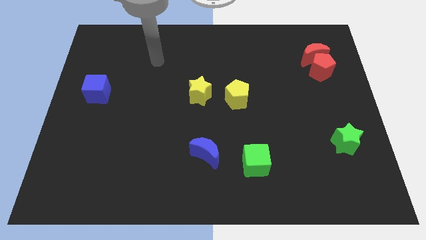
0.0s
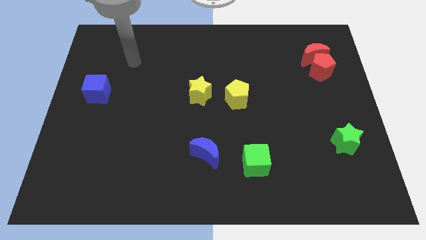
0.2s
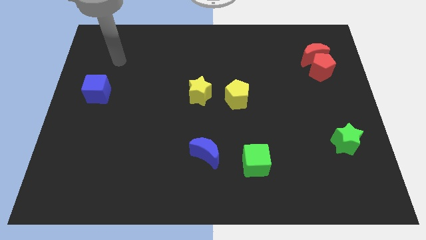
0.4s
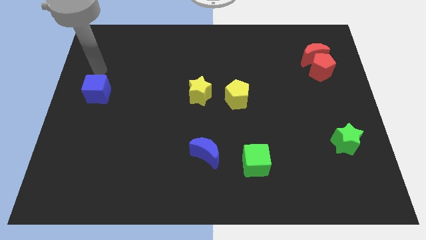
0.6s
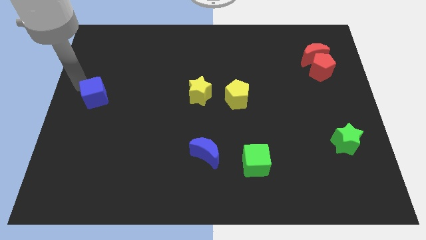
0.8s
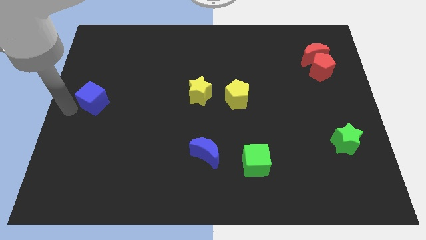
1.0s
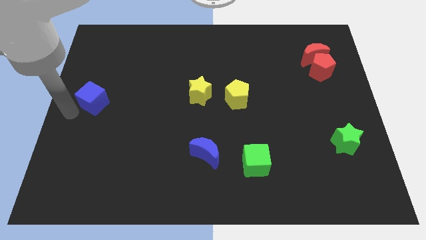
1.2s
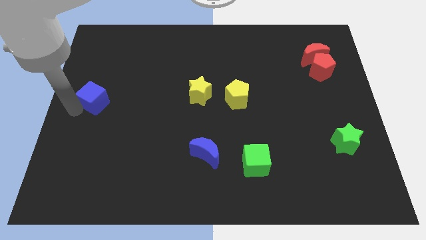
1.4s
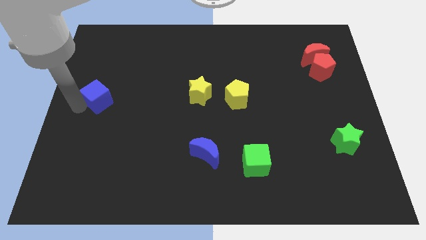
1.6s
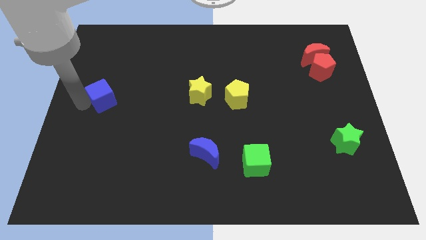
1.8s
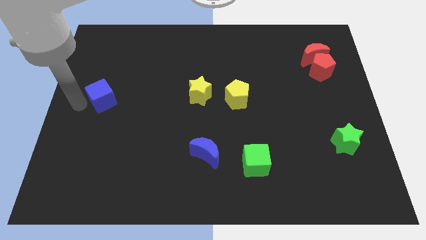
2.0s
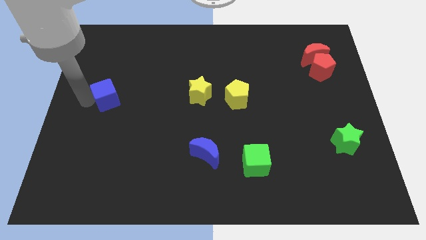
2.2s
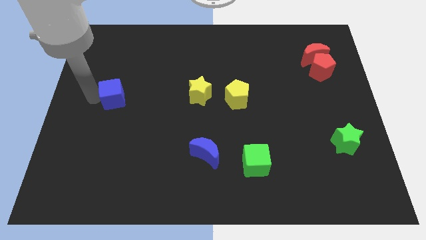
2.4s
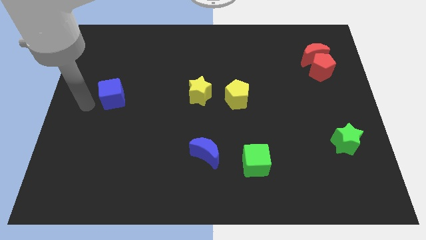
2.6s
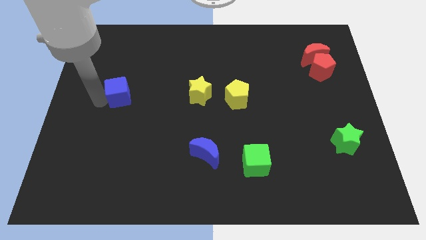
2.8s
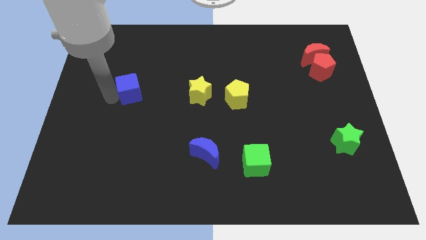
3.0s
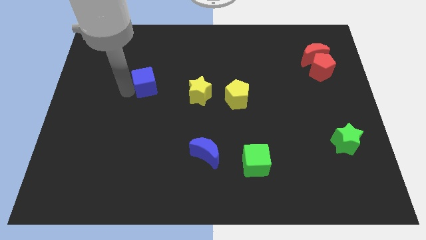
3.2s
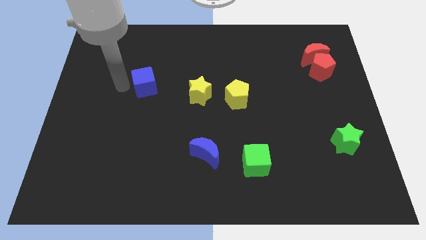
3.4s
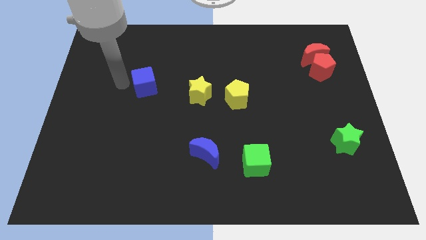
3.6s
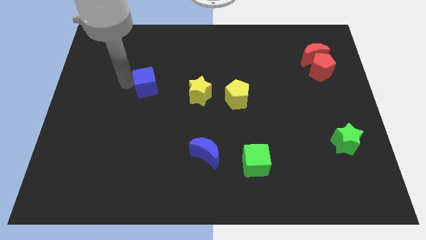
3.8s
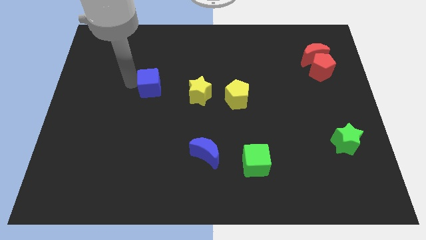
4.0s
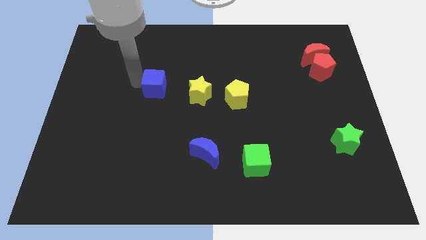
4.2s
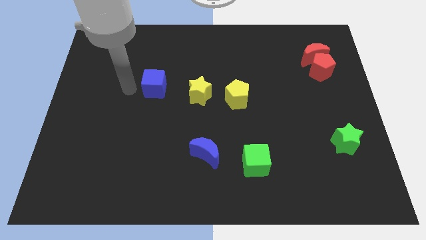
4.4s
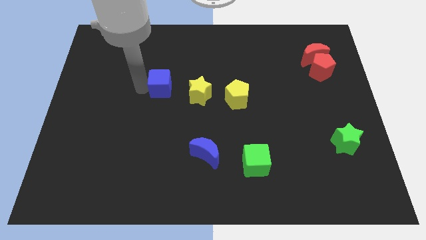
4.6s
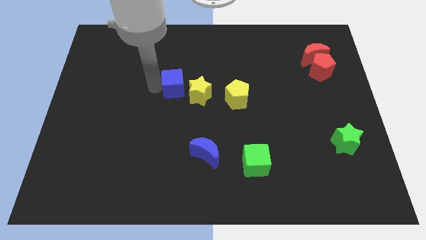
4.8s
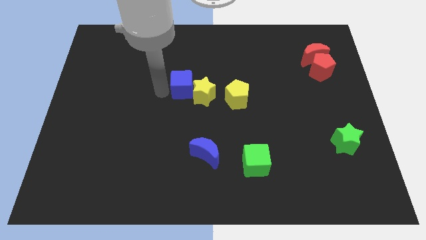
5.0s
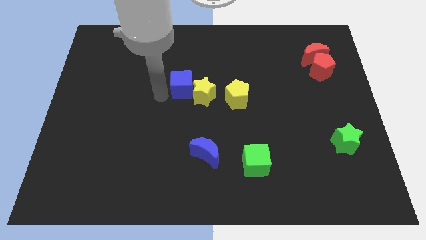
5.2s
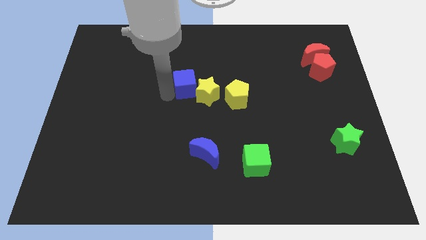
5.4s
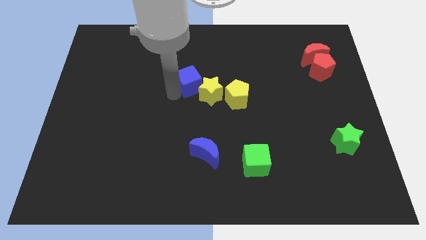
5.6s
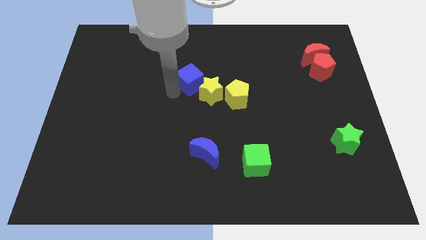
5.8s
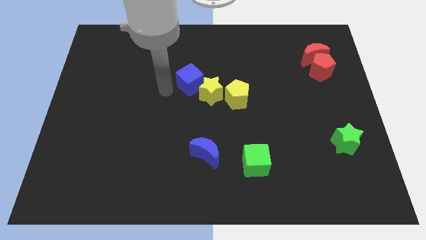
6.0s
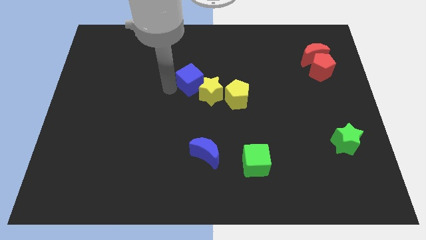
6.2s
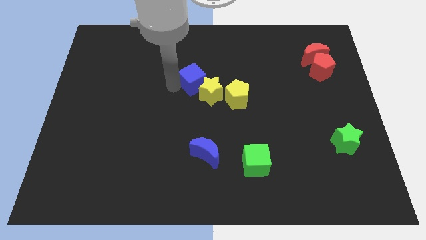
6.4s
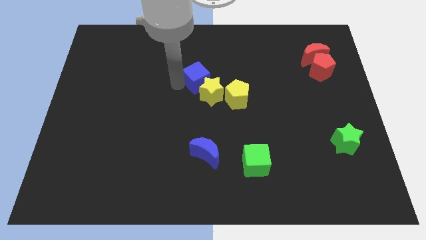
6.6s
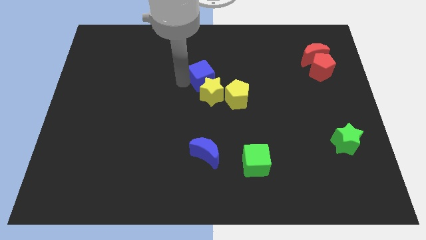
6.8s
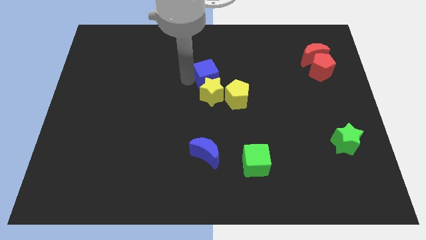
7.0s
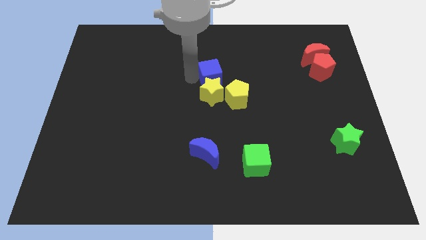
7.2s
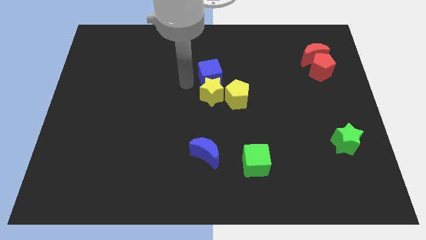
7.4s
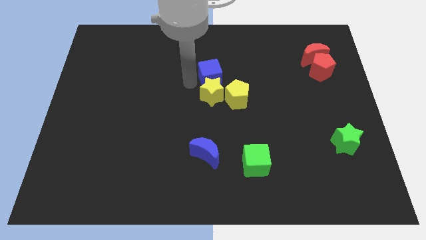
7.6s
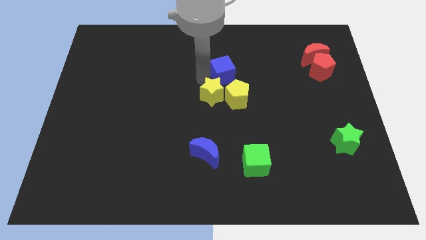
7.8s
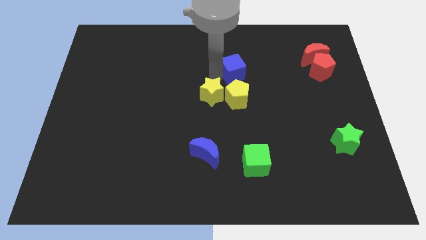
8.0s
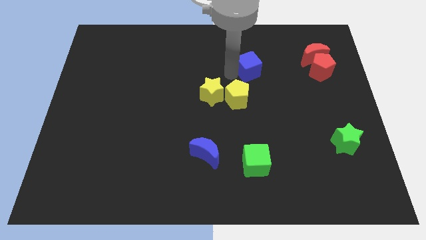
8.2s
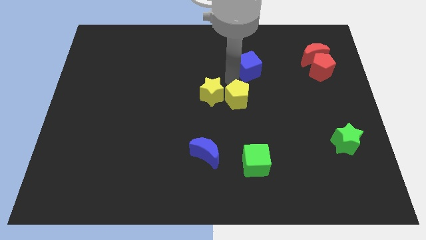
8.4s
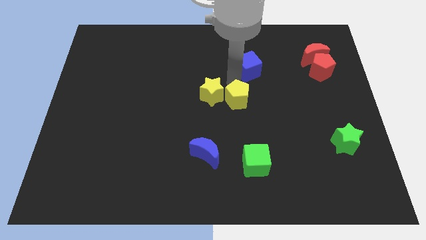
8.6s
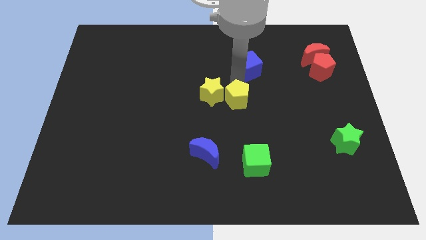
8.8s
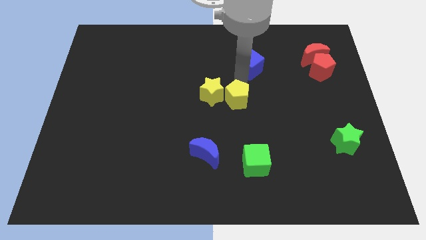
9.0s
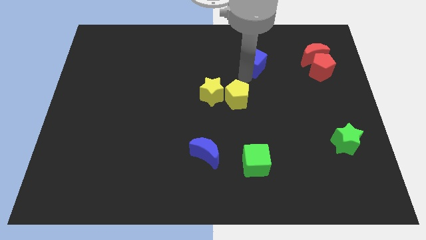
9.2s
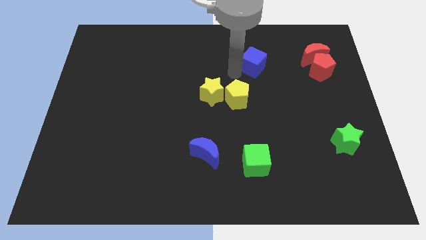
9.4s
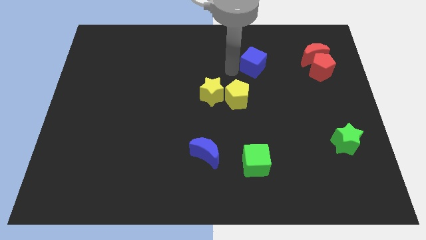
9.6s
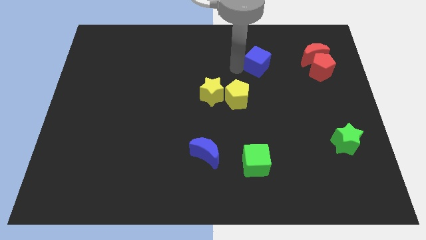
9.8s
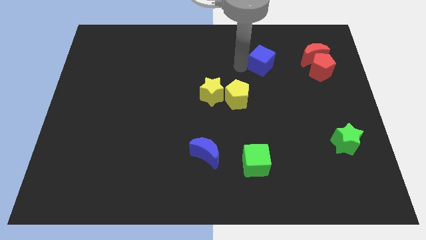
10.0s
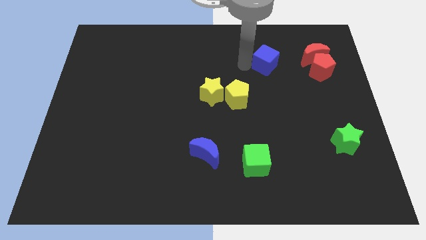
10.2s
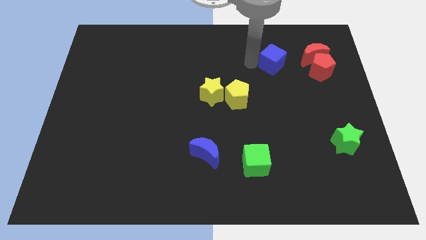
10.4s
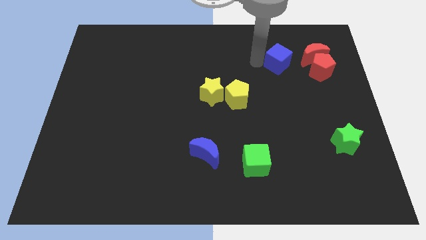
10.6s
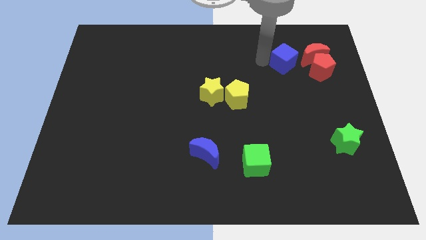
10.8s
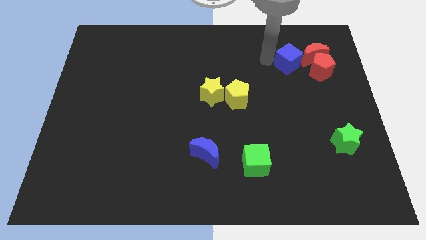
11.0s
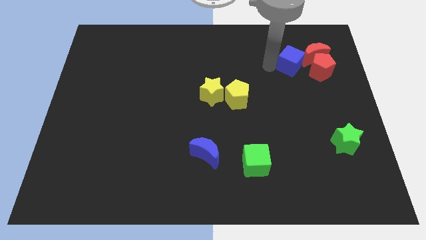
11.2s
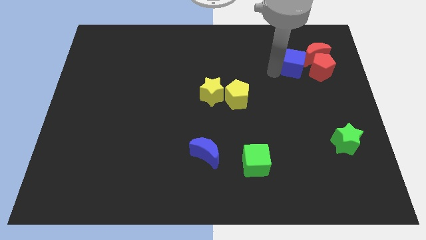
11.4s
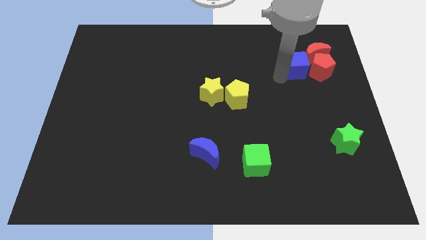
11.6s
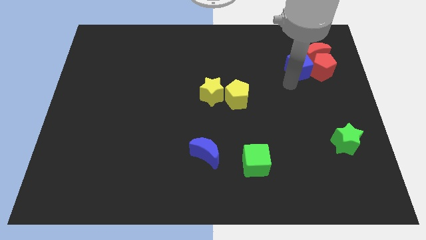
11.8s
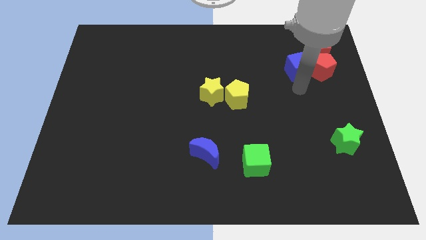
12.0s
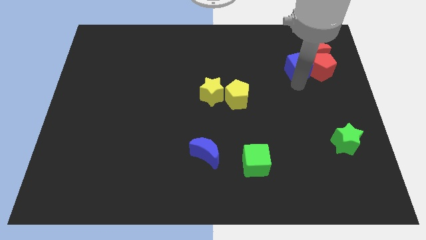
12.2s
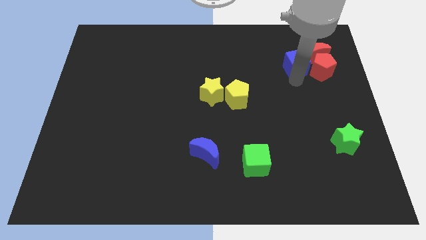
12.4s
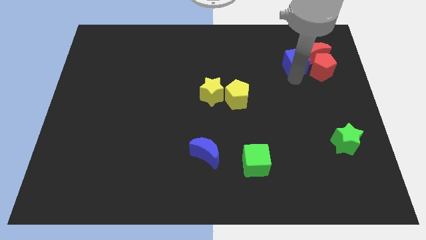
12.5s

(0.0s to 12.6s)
put the blue cube towards the red moon

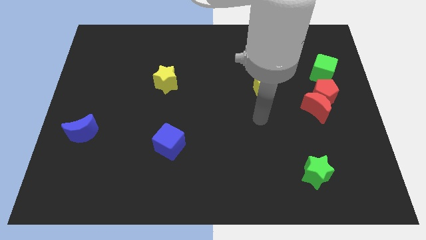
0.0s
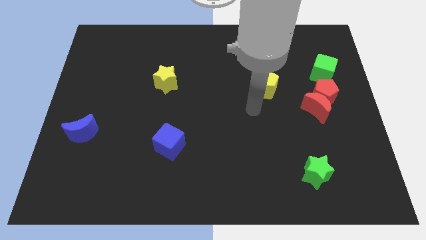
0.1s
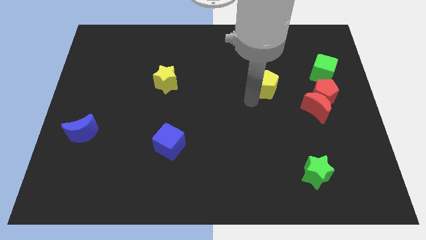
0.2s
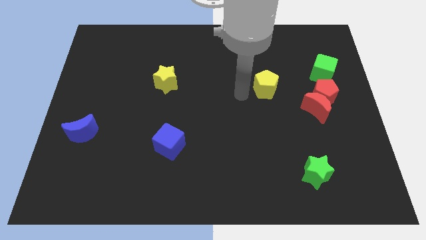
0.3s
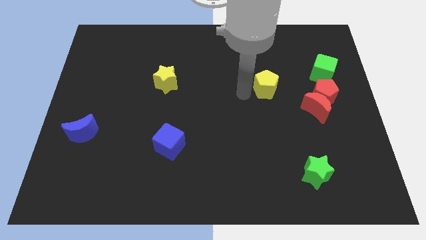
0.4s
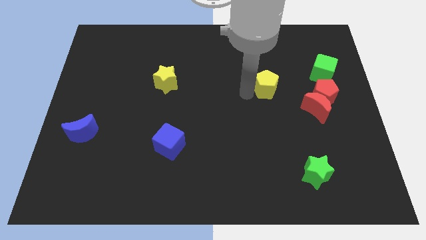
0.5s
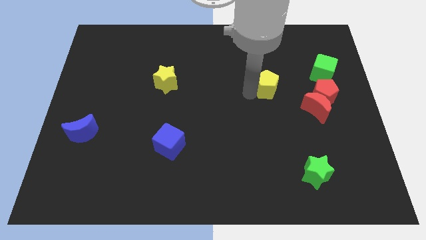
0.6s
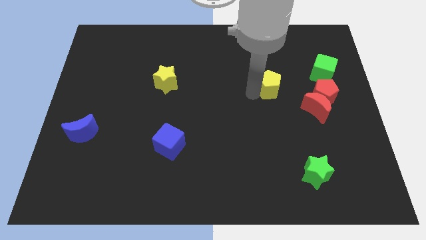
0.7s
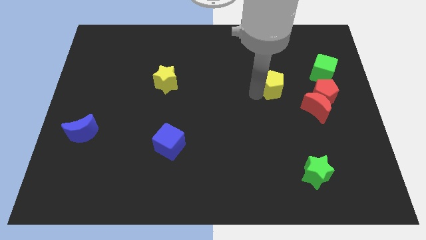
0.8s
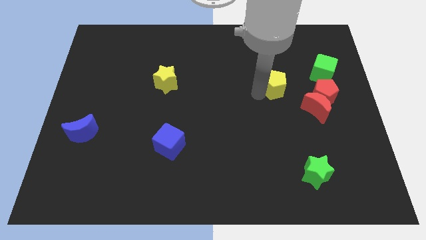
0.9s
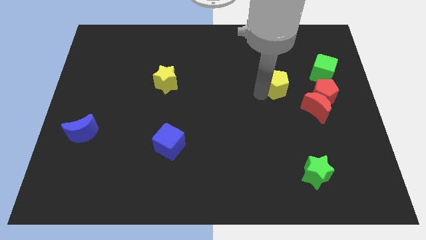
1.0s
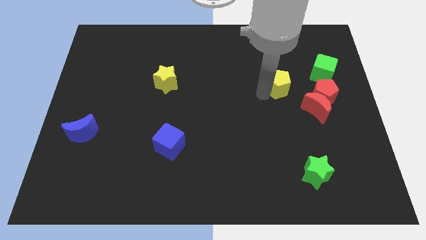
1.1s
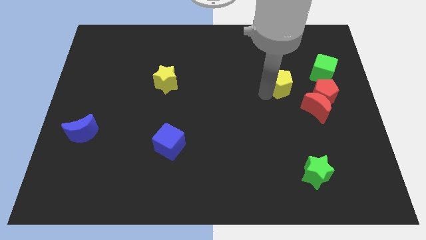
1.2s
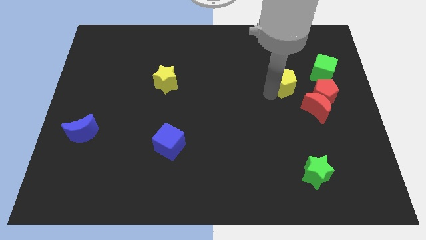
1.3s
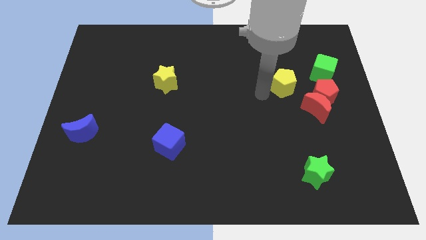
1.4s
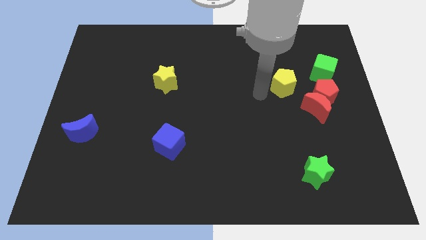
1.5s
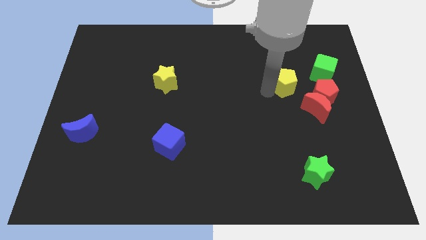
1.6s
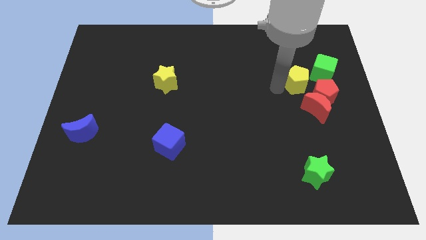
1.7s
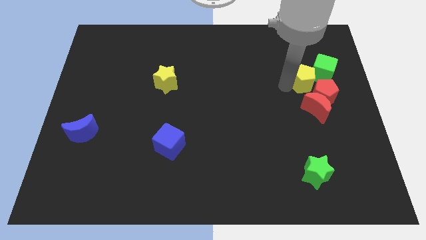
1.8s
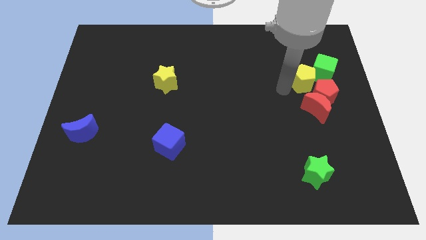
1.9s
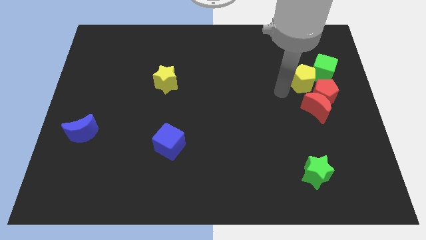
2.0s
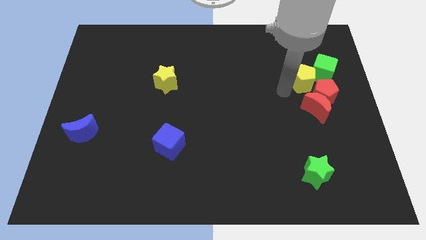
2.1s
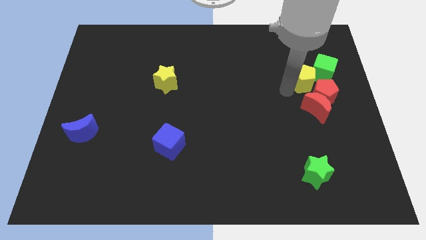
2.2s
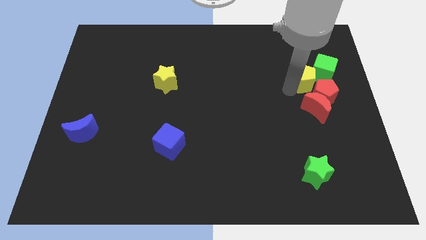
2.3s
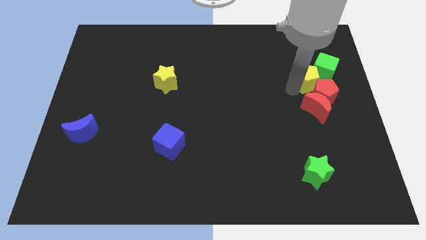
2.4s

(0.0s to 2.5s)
push the yellow pentagon to the green cube
